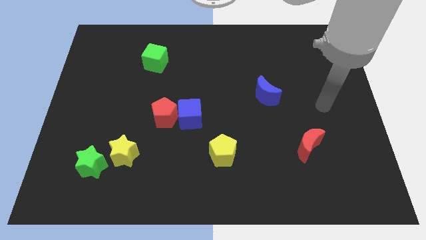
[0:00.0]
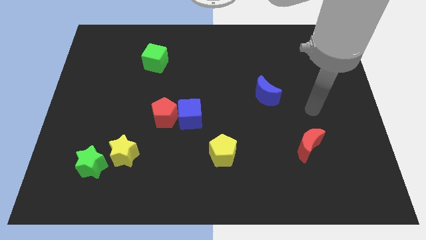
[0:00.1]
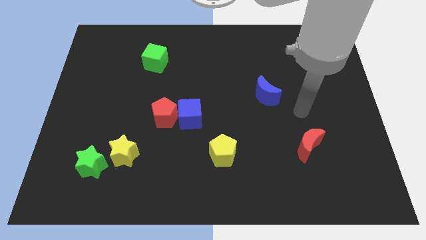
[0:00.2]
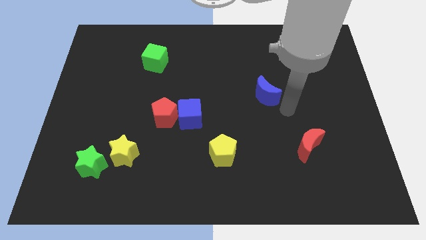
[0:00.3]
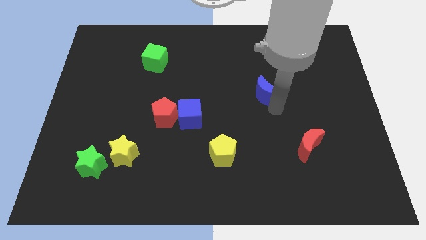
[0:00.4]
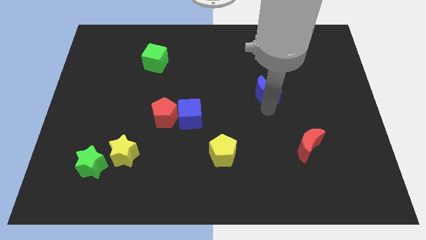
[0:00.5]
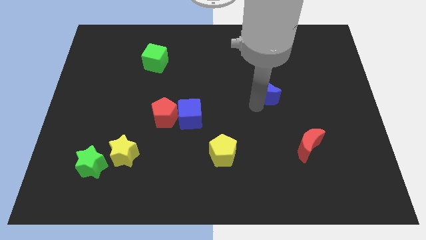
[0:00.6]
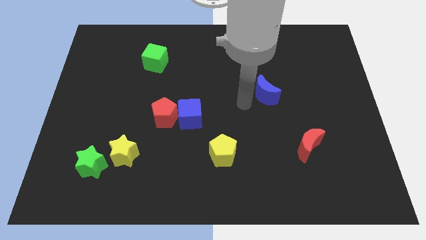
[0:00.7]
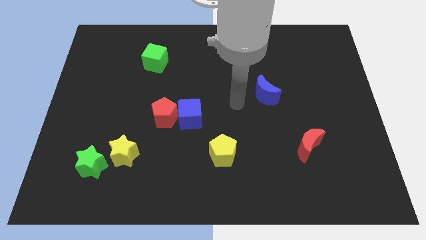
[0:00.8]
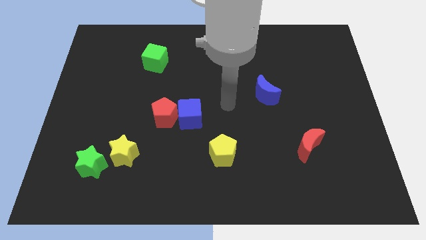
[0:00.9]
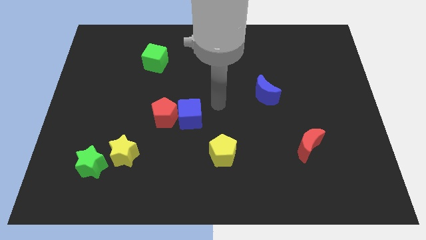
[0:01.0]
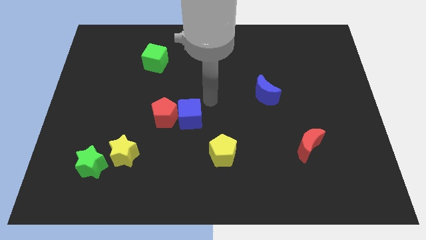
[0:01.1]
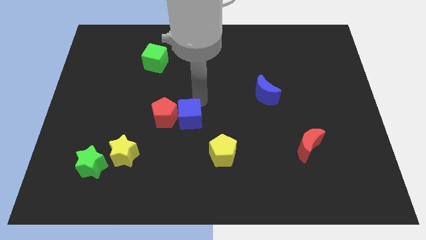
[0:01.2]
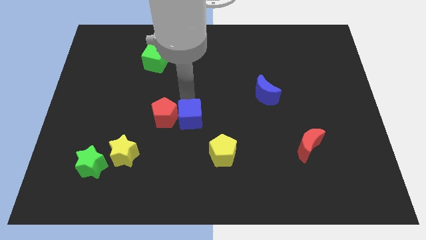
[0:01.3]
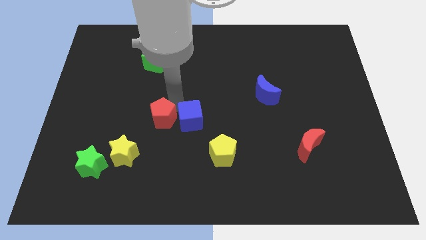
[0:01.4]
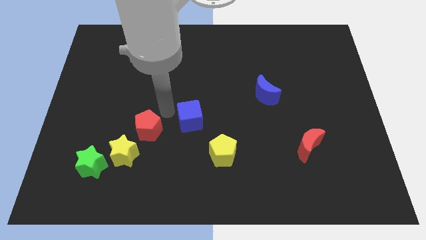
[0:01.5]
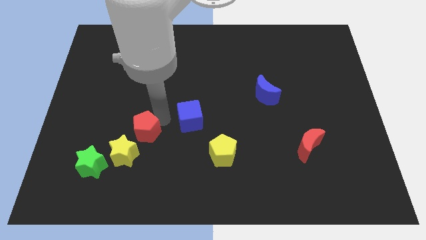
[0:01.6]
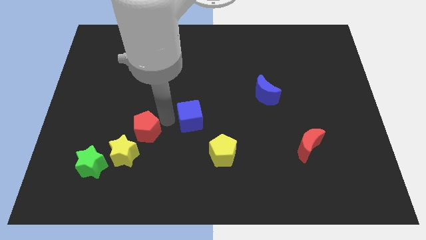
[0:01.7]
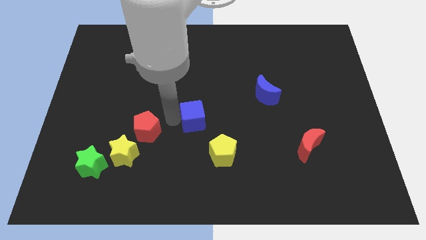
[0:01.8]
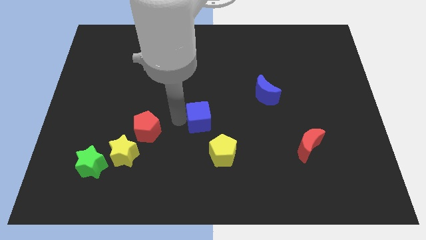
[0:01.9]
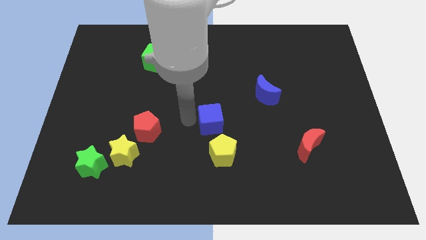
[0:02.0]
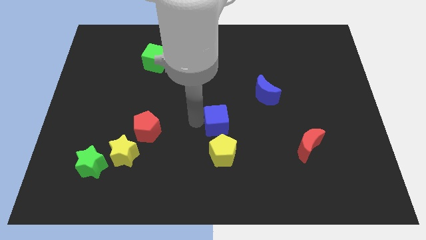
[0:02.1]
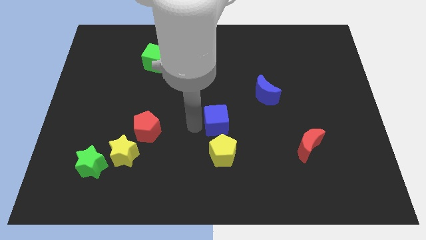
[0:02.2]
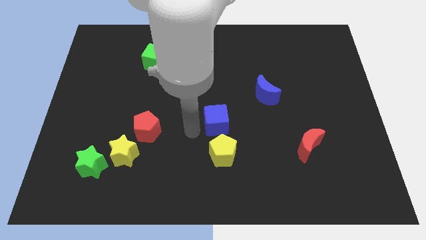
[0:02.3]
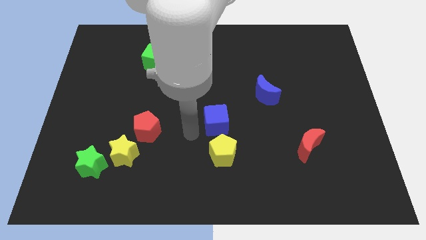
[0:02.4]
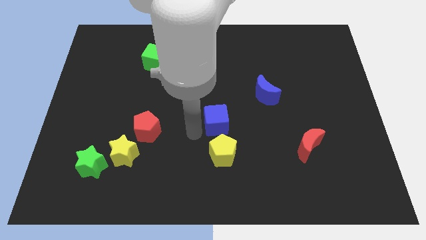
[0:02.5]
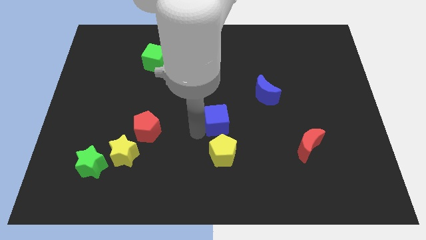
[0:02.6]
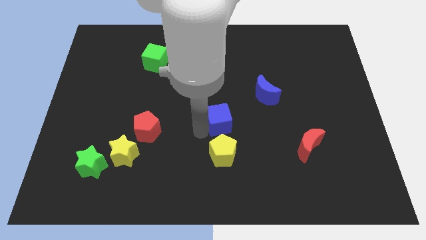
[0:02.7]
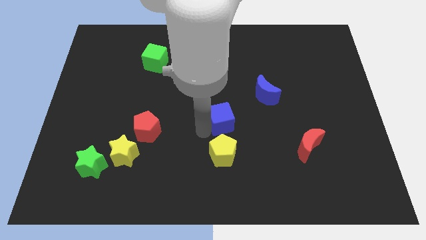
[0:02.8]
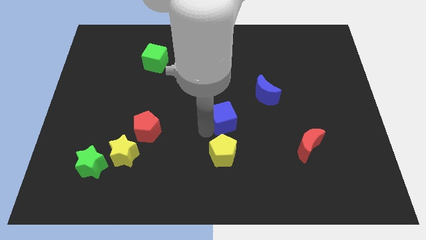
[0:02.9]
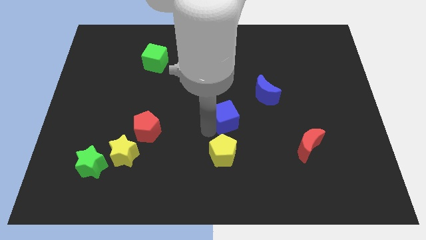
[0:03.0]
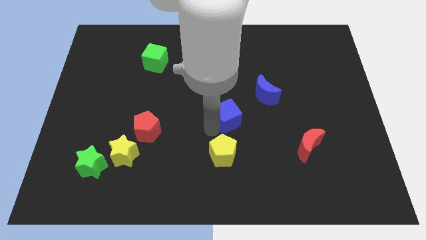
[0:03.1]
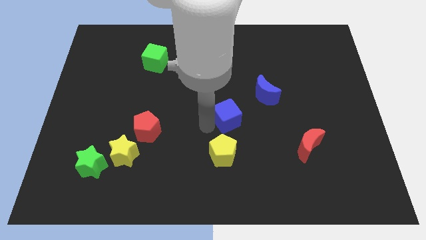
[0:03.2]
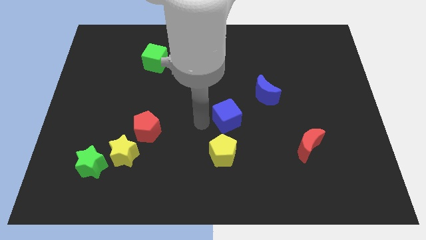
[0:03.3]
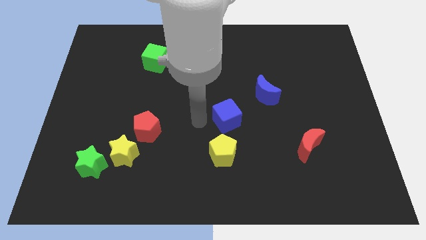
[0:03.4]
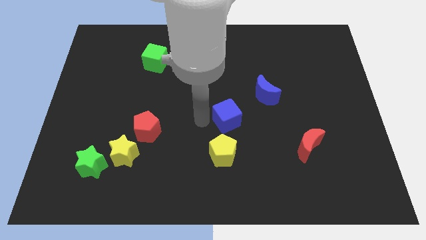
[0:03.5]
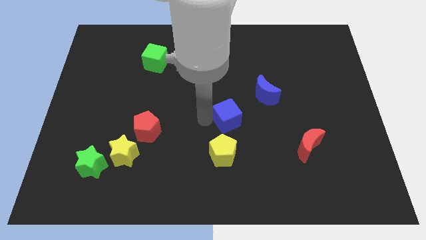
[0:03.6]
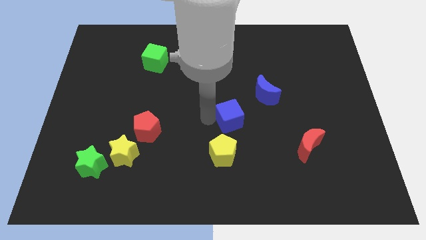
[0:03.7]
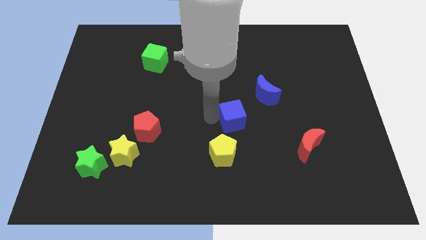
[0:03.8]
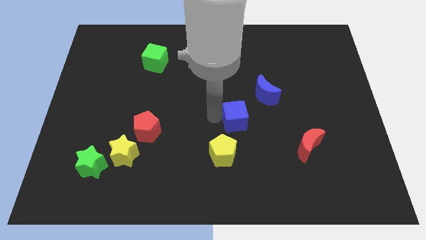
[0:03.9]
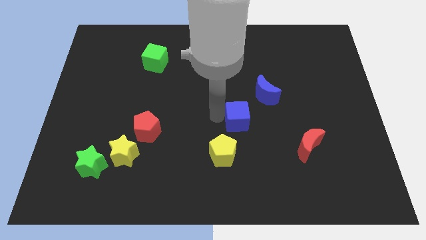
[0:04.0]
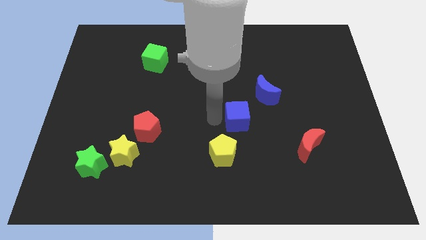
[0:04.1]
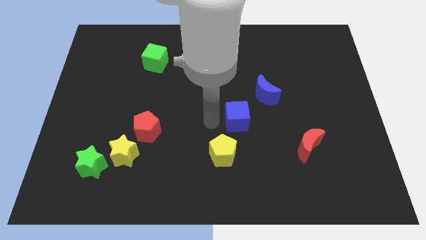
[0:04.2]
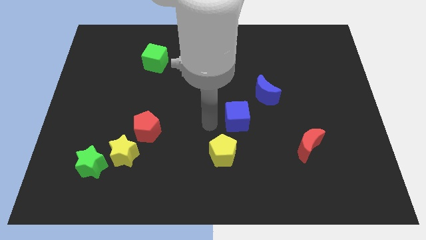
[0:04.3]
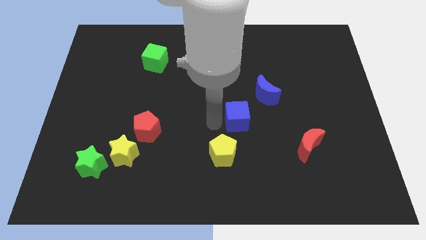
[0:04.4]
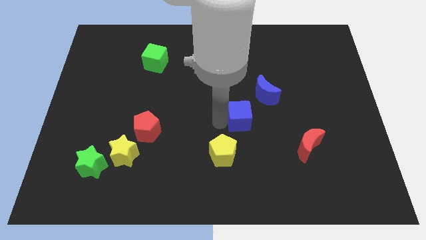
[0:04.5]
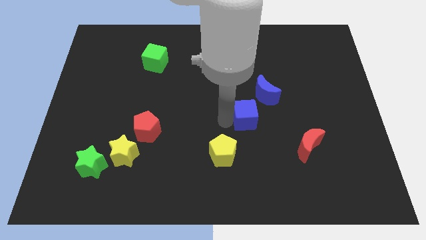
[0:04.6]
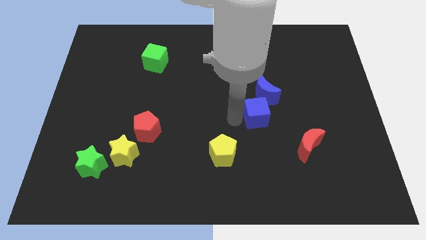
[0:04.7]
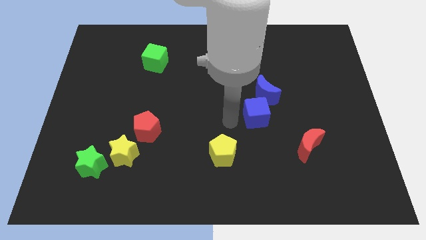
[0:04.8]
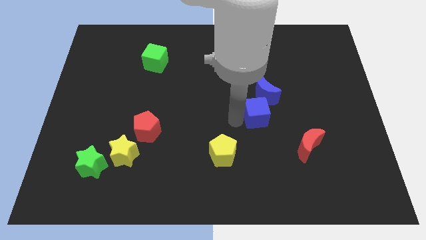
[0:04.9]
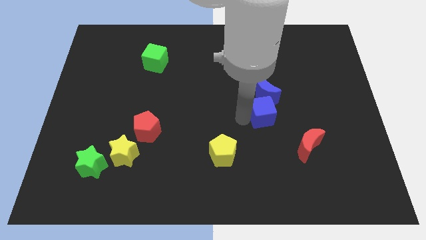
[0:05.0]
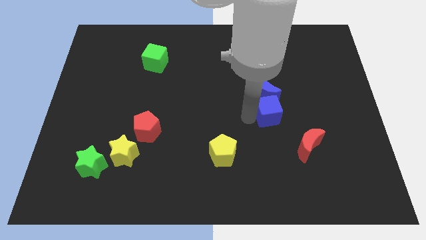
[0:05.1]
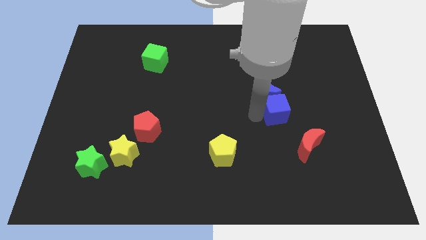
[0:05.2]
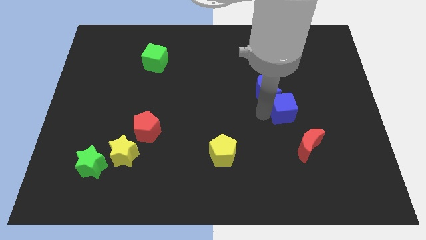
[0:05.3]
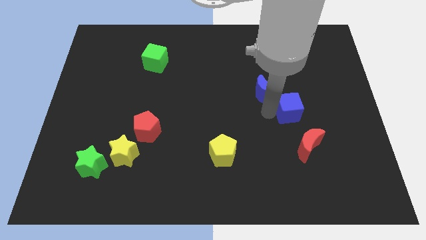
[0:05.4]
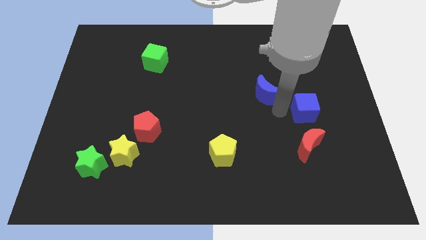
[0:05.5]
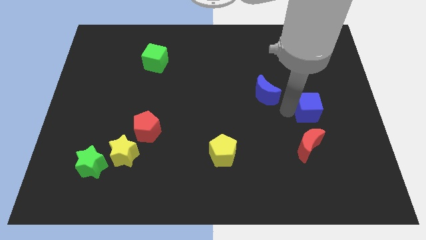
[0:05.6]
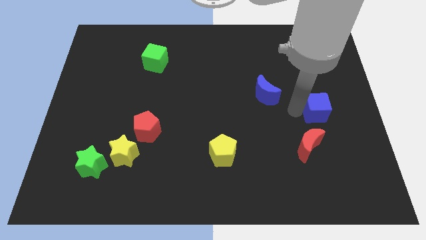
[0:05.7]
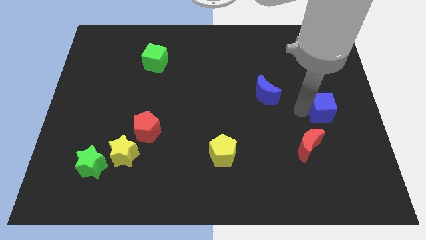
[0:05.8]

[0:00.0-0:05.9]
put the blue cube to the center right
